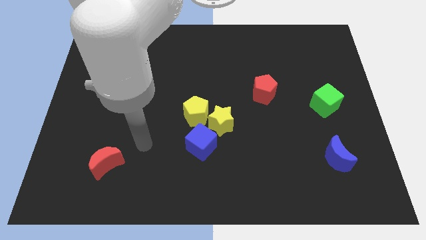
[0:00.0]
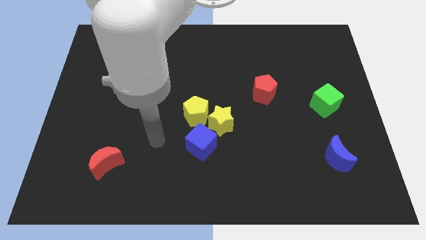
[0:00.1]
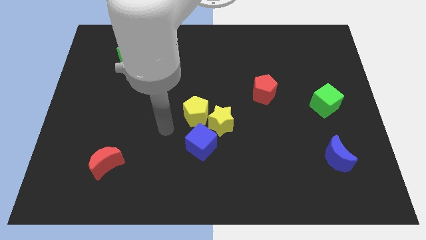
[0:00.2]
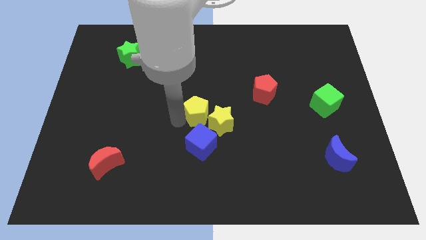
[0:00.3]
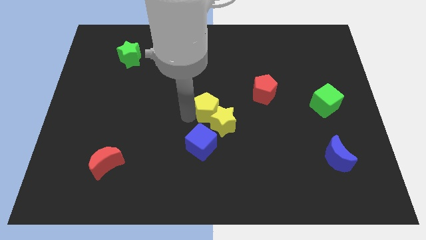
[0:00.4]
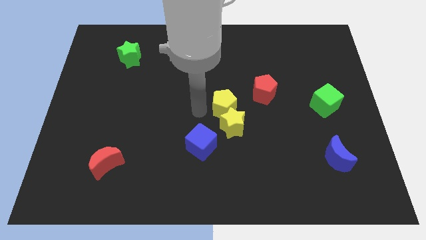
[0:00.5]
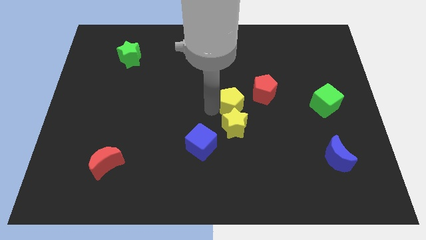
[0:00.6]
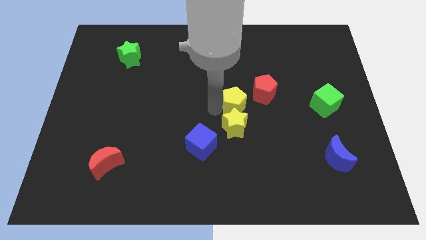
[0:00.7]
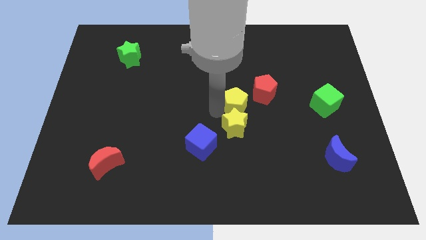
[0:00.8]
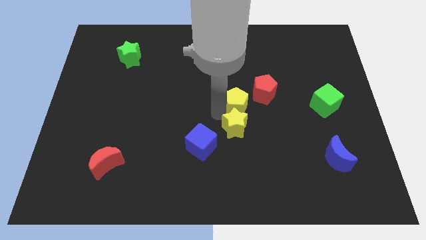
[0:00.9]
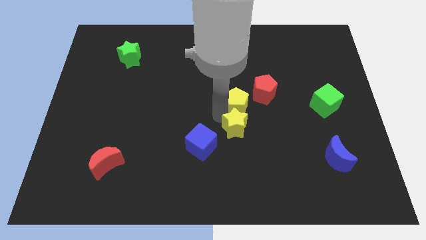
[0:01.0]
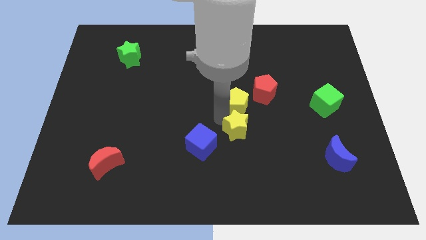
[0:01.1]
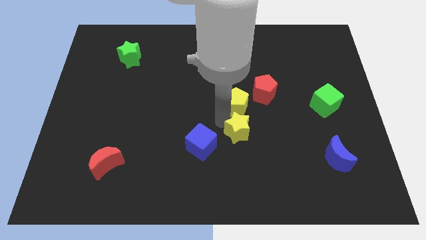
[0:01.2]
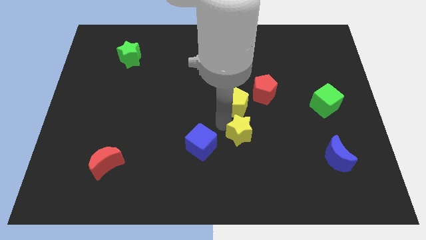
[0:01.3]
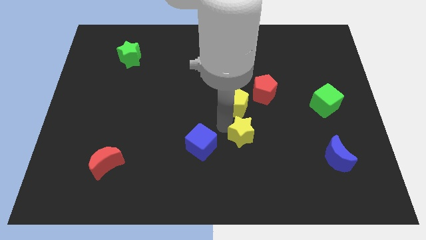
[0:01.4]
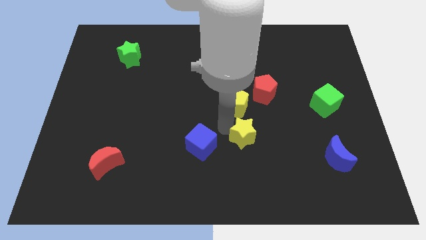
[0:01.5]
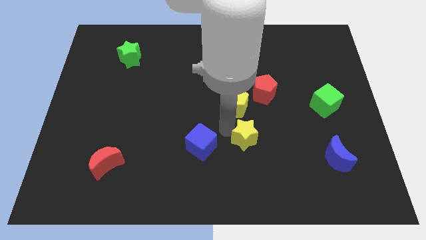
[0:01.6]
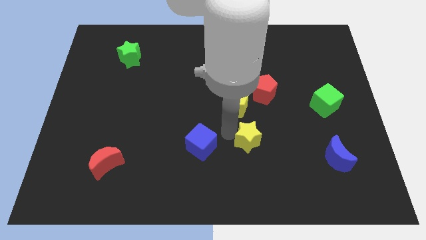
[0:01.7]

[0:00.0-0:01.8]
slightly move the yellow star downwards and right

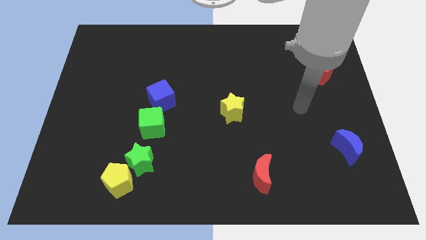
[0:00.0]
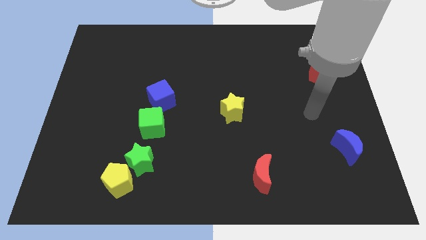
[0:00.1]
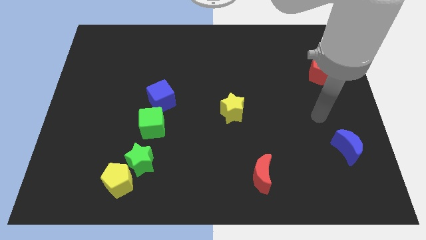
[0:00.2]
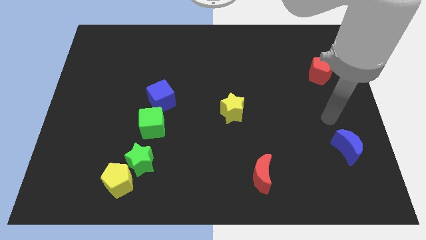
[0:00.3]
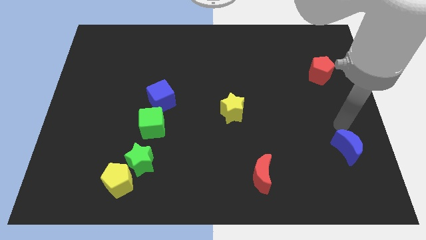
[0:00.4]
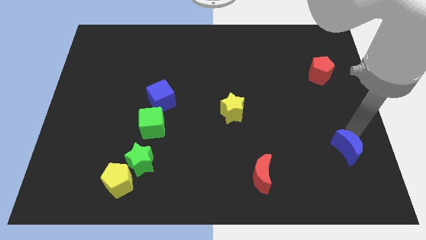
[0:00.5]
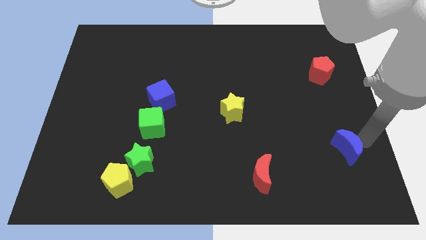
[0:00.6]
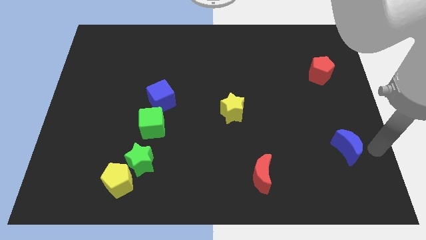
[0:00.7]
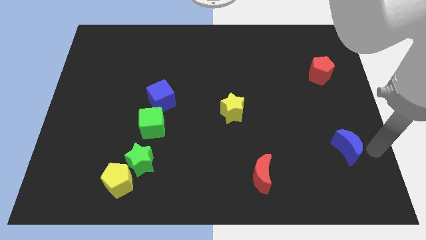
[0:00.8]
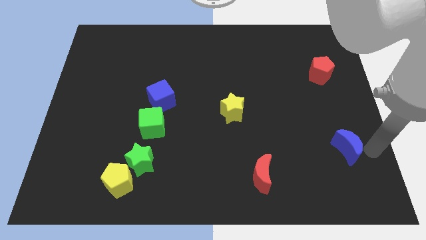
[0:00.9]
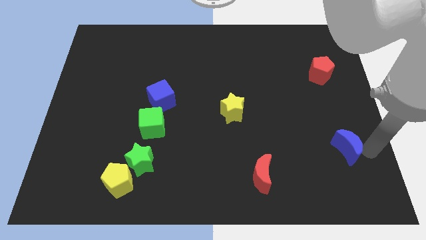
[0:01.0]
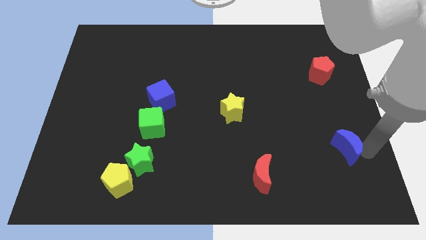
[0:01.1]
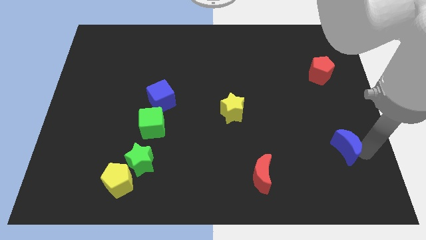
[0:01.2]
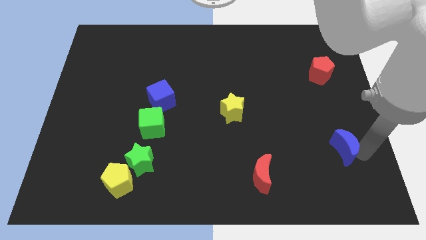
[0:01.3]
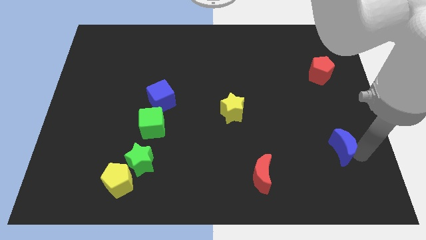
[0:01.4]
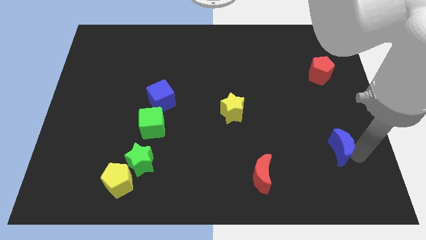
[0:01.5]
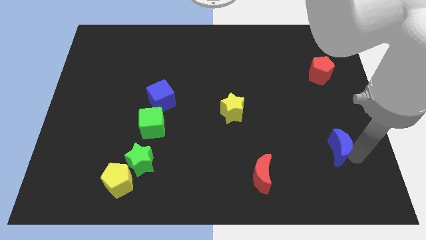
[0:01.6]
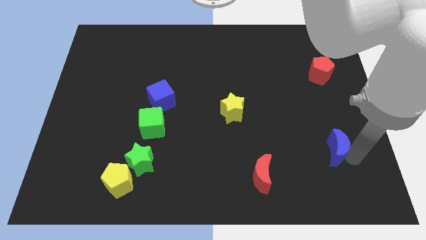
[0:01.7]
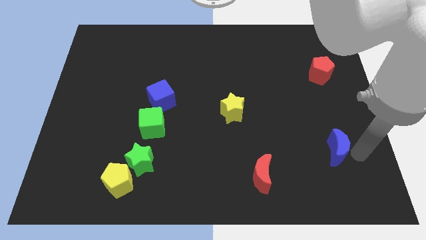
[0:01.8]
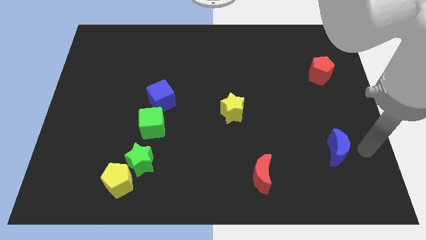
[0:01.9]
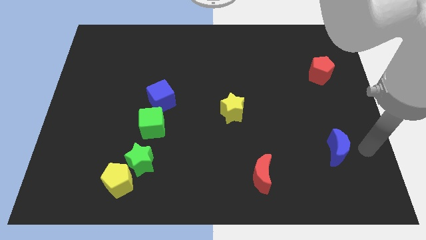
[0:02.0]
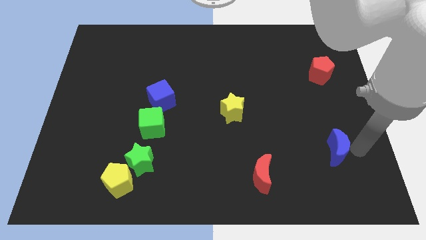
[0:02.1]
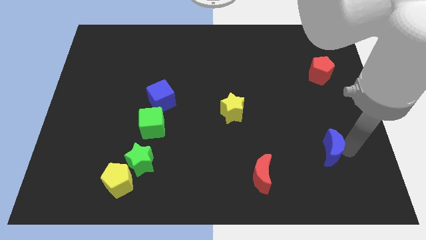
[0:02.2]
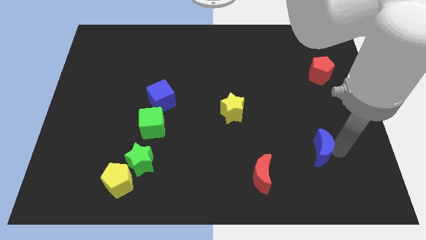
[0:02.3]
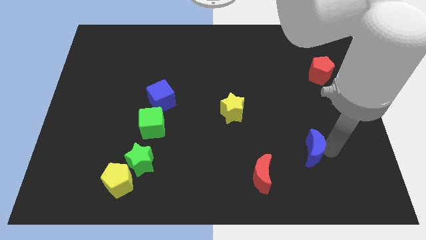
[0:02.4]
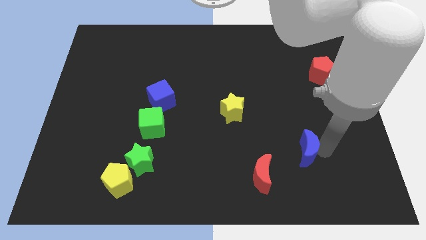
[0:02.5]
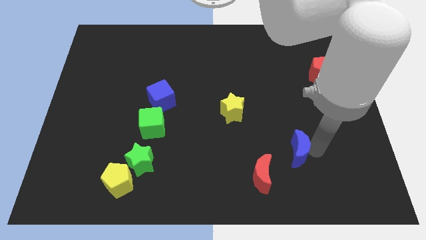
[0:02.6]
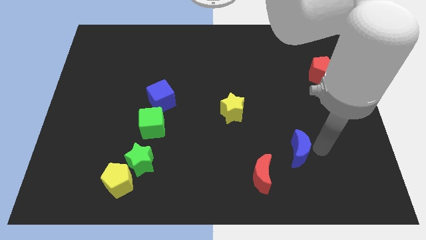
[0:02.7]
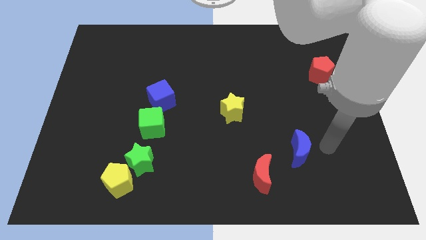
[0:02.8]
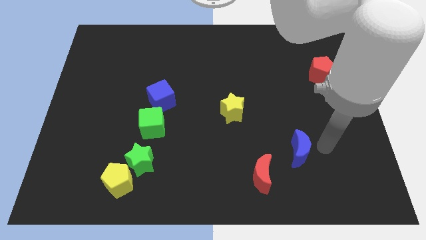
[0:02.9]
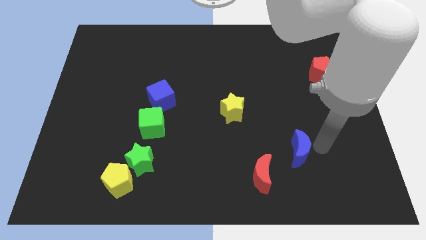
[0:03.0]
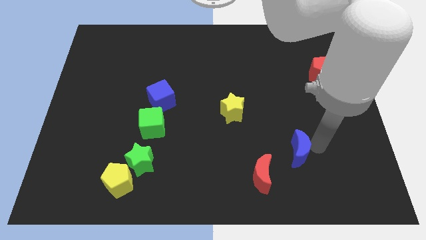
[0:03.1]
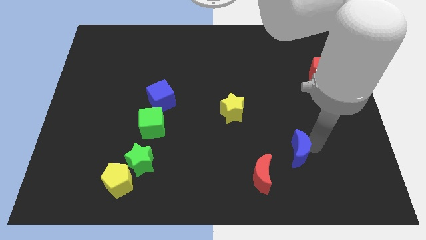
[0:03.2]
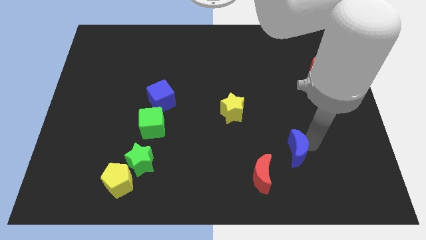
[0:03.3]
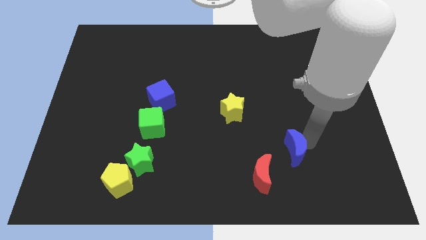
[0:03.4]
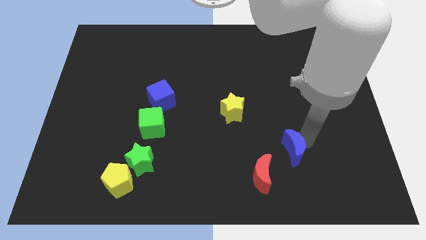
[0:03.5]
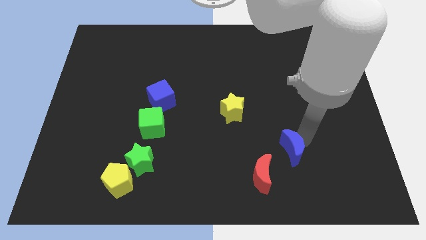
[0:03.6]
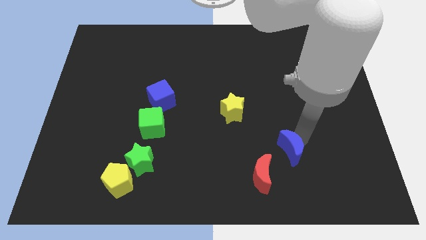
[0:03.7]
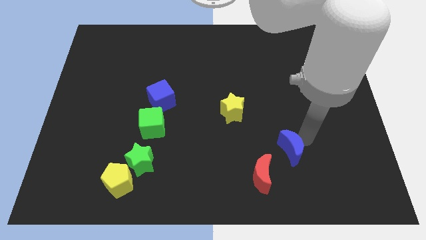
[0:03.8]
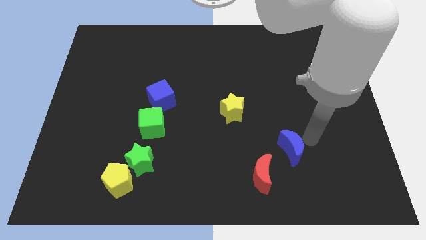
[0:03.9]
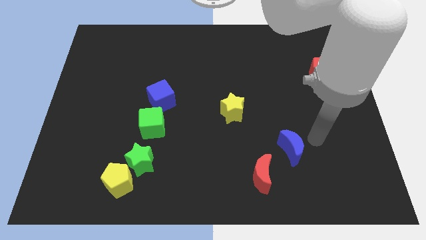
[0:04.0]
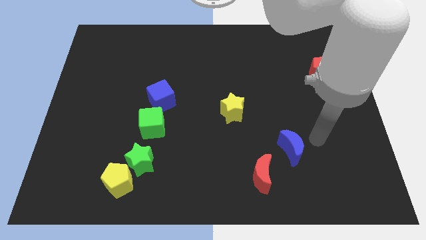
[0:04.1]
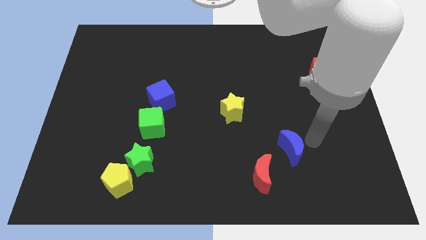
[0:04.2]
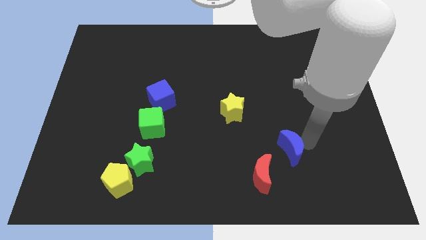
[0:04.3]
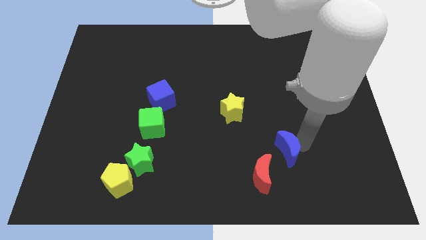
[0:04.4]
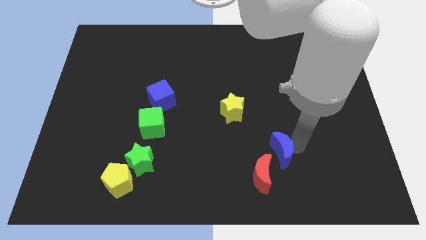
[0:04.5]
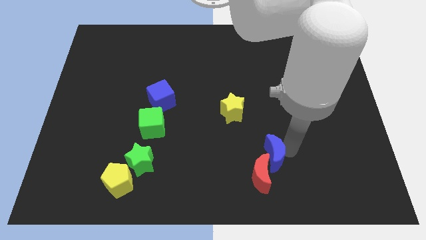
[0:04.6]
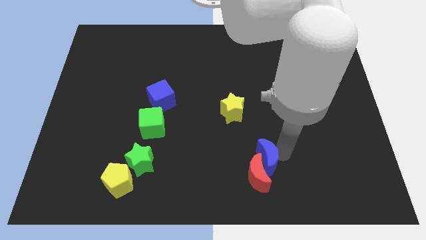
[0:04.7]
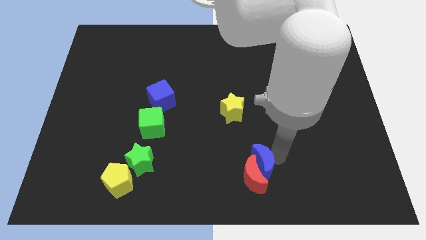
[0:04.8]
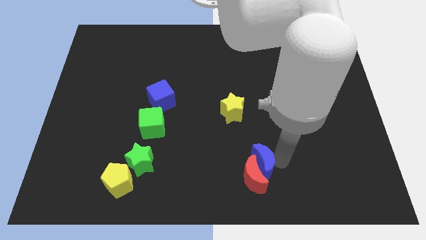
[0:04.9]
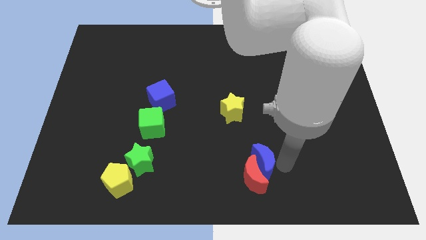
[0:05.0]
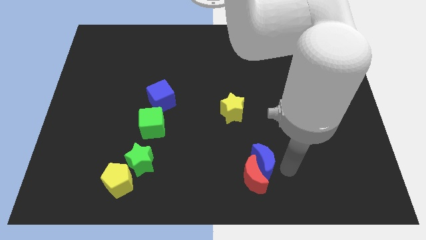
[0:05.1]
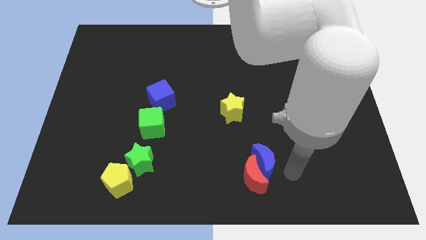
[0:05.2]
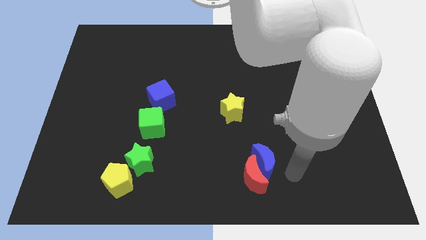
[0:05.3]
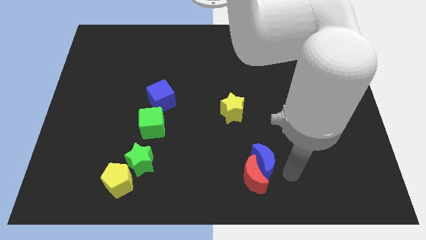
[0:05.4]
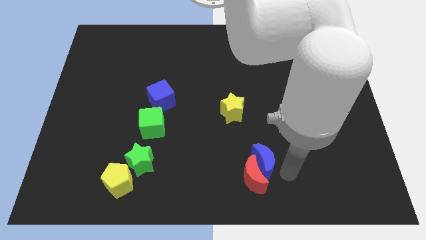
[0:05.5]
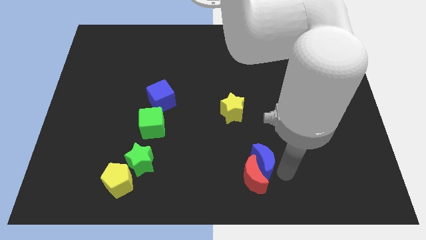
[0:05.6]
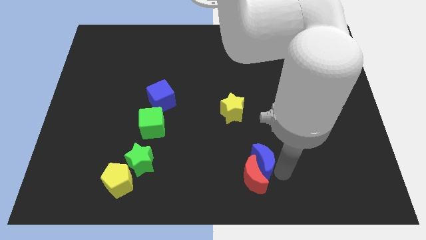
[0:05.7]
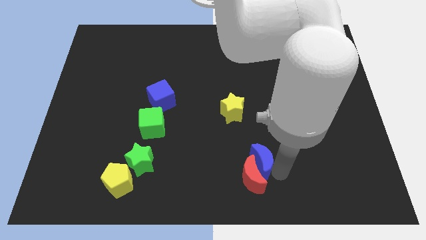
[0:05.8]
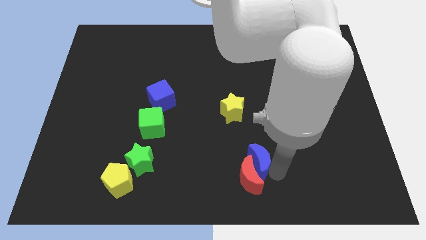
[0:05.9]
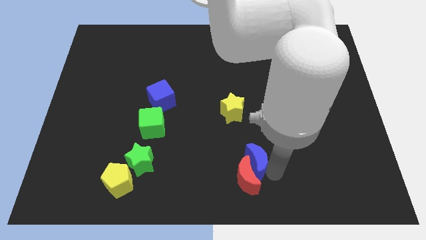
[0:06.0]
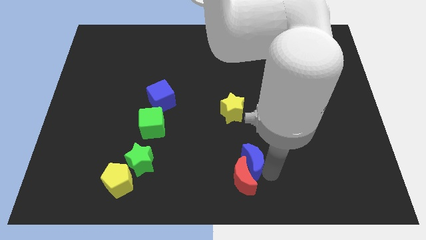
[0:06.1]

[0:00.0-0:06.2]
move the blue moon left
